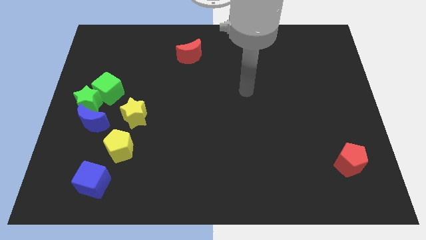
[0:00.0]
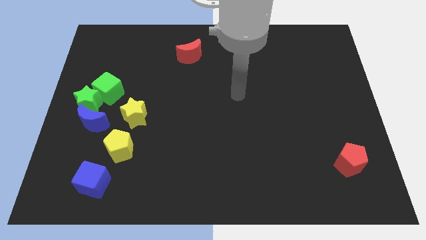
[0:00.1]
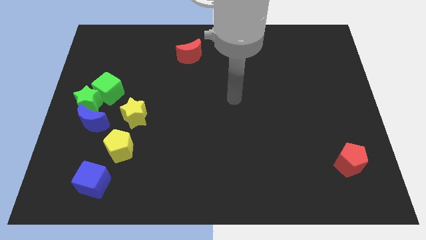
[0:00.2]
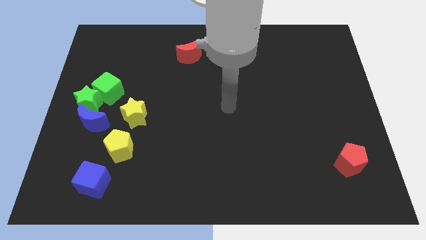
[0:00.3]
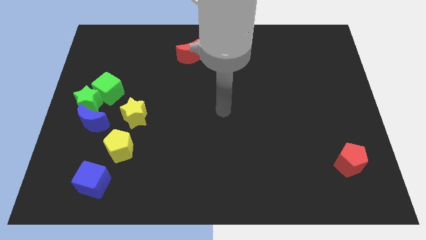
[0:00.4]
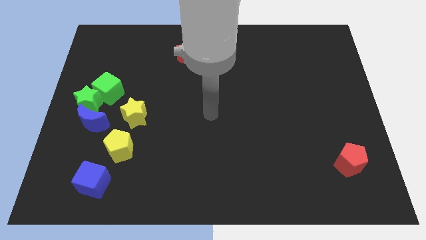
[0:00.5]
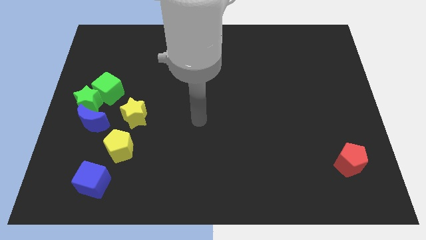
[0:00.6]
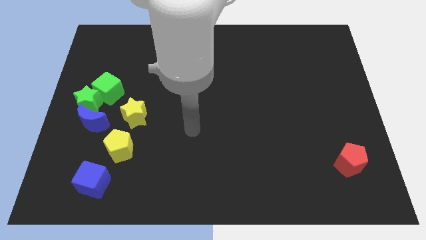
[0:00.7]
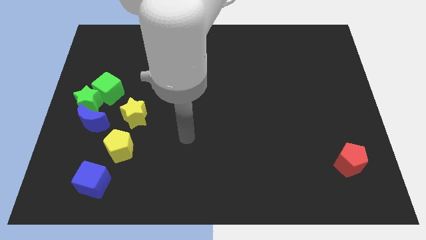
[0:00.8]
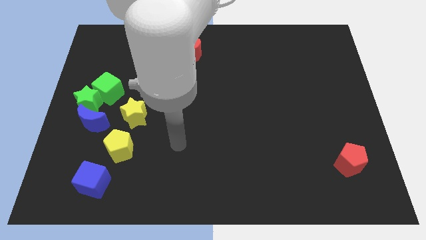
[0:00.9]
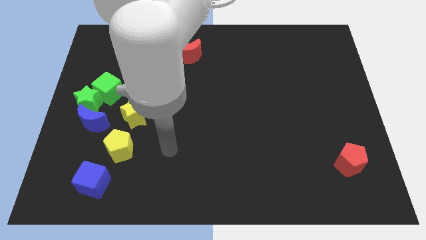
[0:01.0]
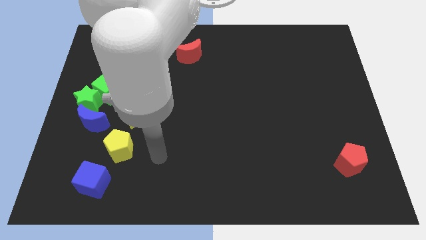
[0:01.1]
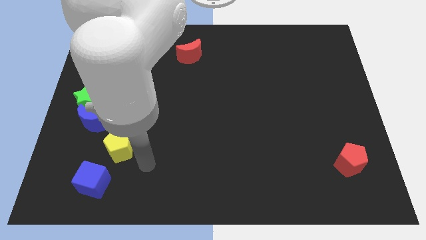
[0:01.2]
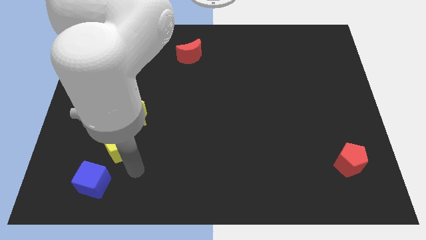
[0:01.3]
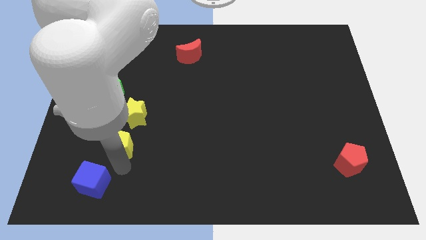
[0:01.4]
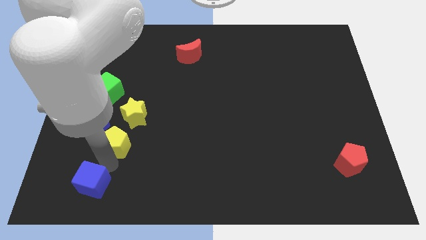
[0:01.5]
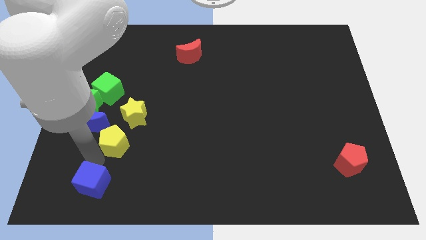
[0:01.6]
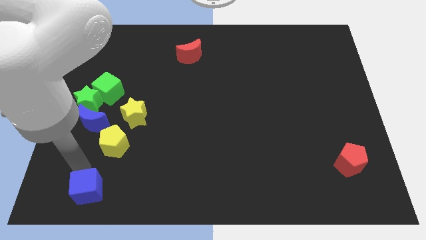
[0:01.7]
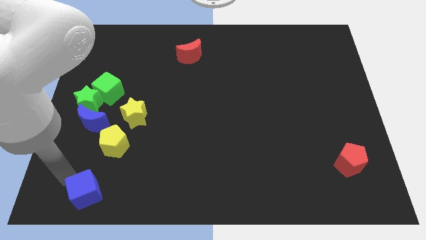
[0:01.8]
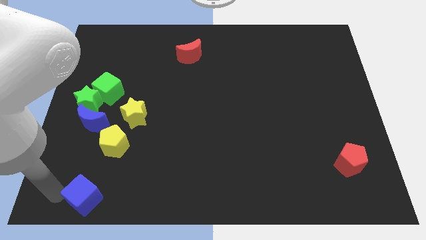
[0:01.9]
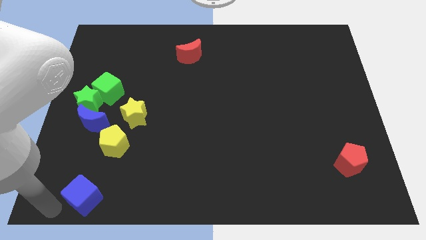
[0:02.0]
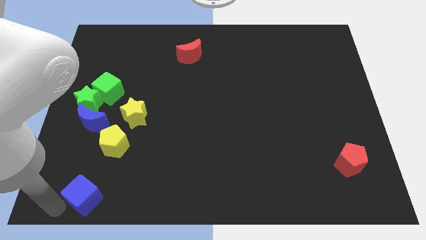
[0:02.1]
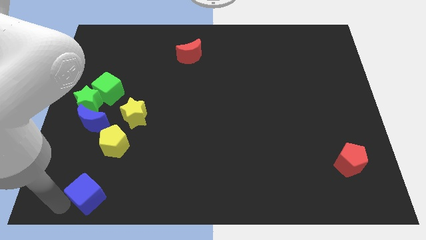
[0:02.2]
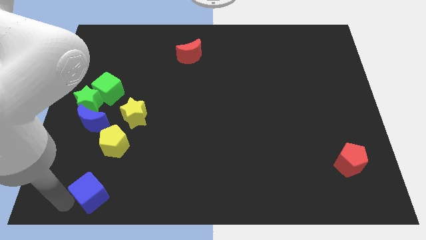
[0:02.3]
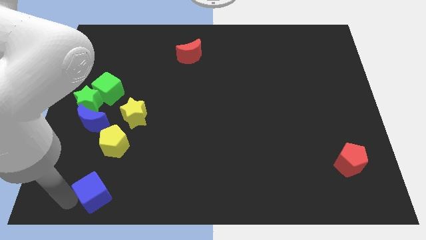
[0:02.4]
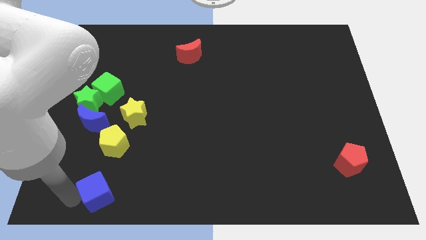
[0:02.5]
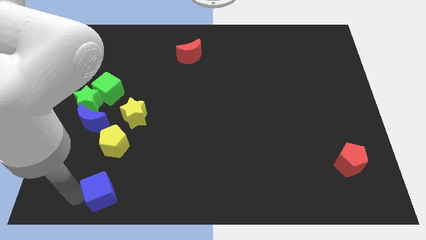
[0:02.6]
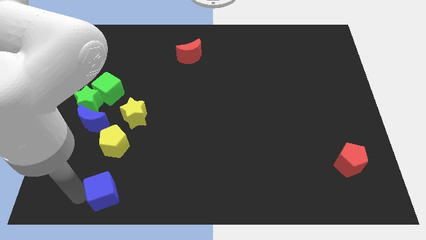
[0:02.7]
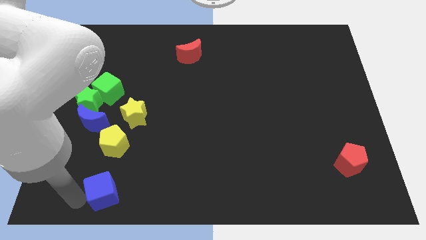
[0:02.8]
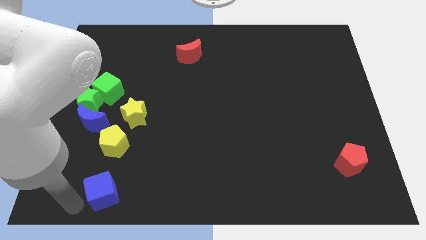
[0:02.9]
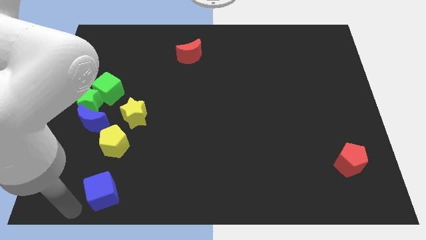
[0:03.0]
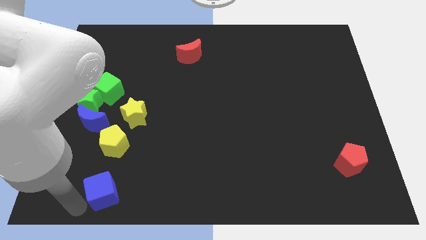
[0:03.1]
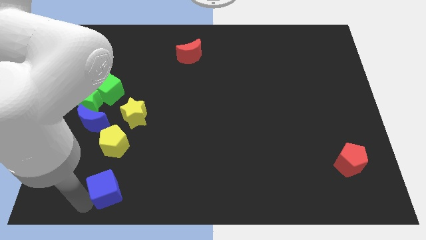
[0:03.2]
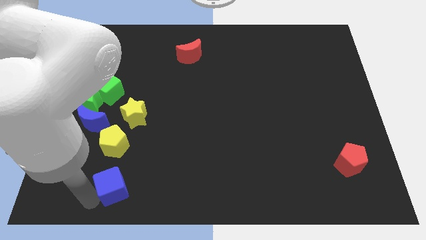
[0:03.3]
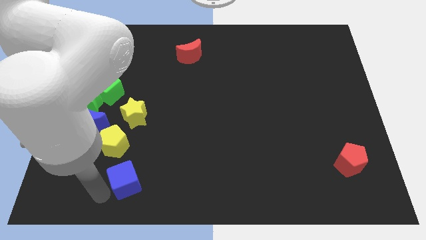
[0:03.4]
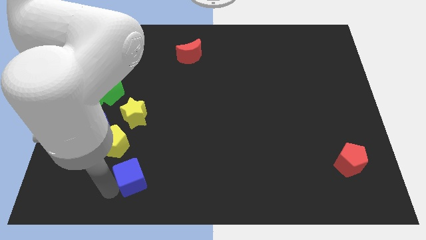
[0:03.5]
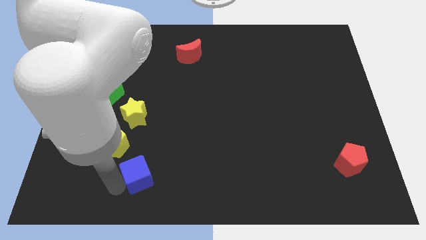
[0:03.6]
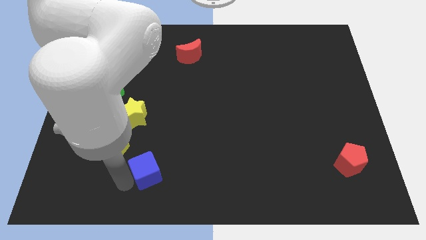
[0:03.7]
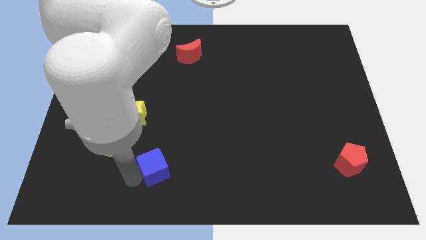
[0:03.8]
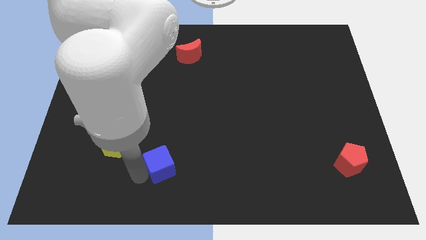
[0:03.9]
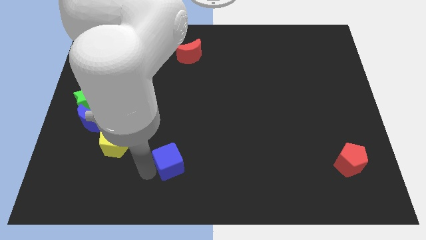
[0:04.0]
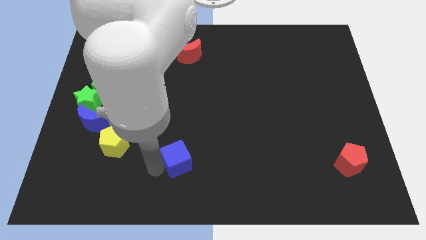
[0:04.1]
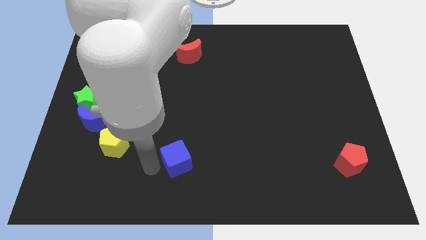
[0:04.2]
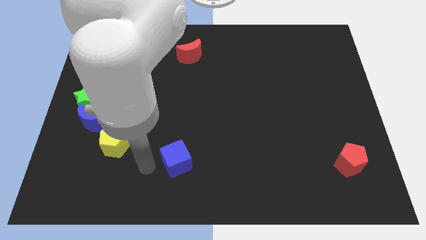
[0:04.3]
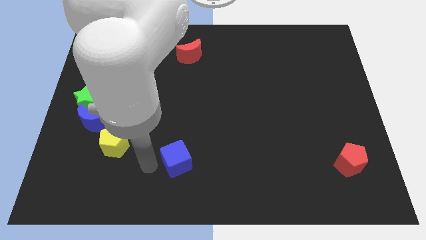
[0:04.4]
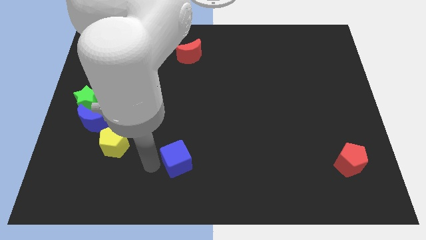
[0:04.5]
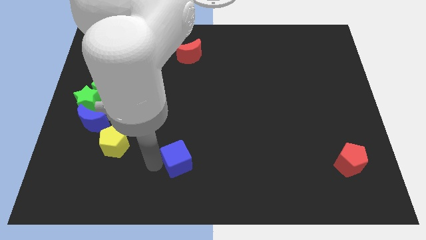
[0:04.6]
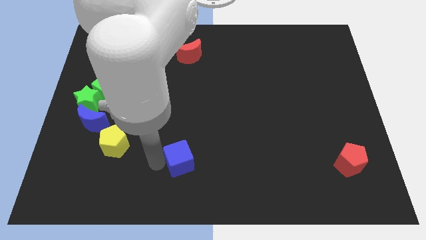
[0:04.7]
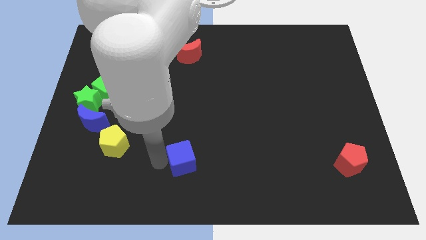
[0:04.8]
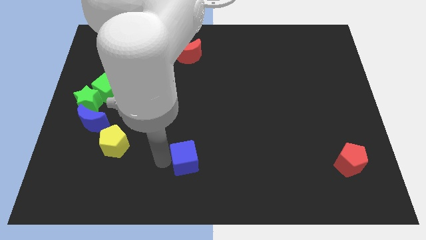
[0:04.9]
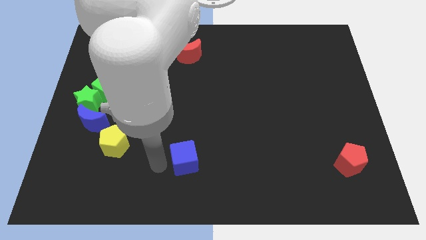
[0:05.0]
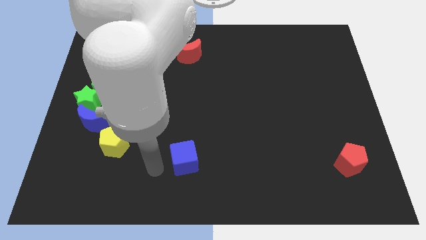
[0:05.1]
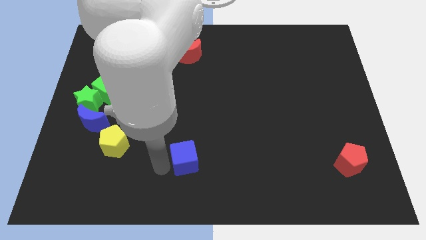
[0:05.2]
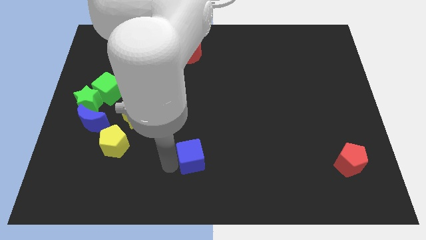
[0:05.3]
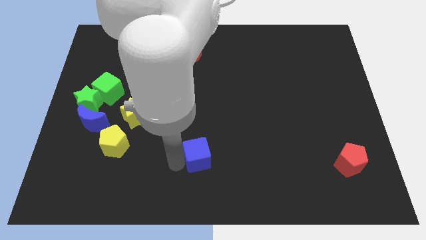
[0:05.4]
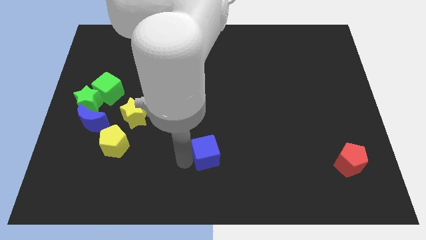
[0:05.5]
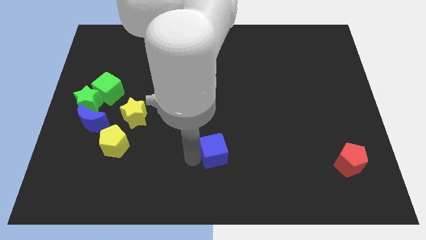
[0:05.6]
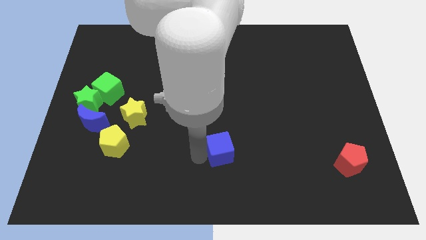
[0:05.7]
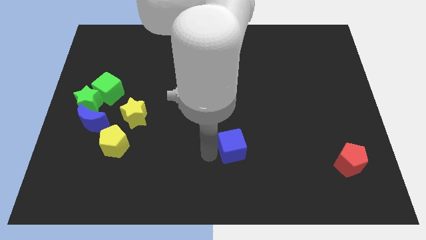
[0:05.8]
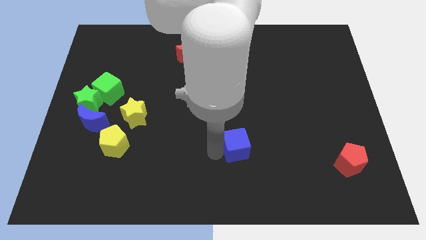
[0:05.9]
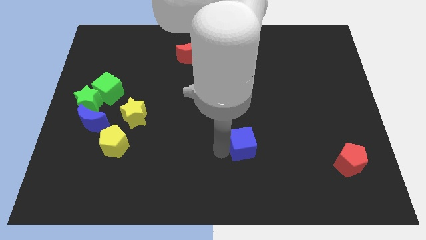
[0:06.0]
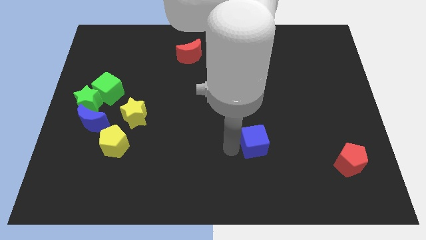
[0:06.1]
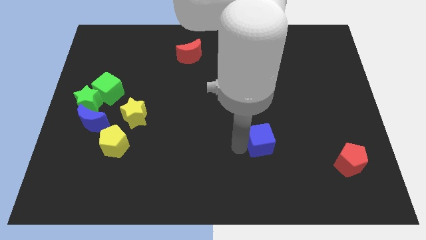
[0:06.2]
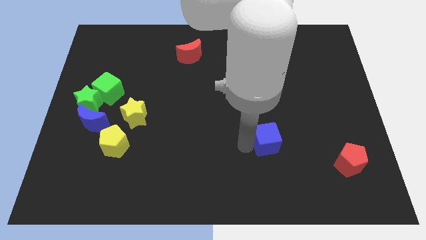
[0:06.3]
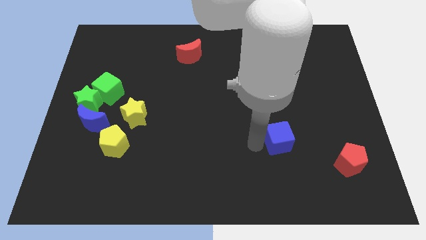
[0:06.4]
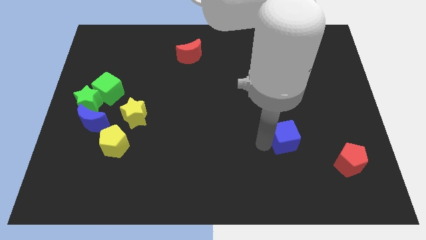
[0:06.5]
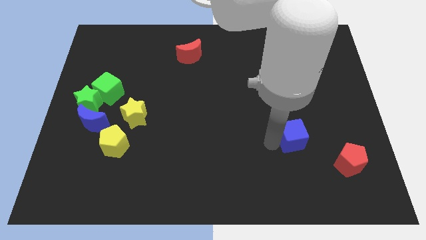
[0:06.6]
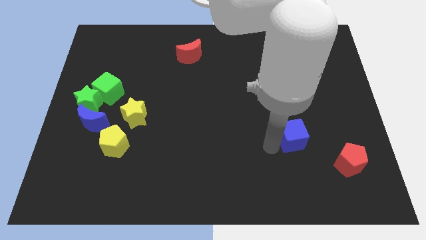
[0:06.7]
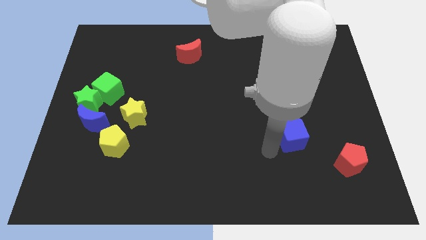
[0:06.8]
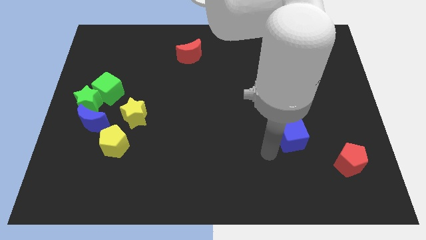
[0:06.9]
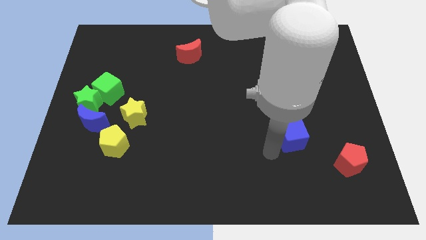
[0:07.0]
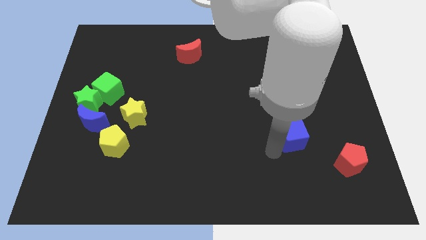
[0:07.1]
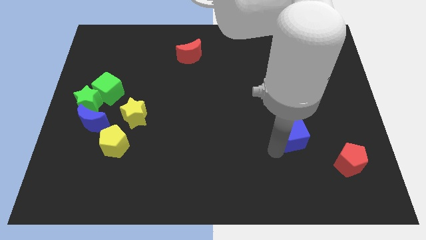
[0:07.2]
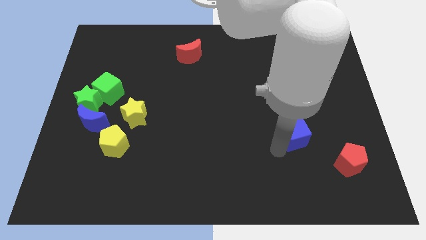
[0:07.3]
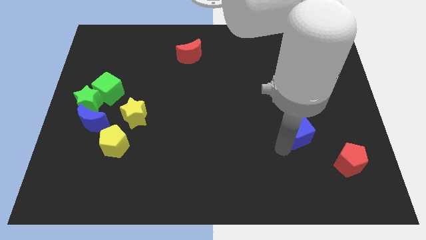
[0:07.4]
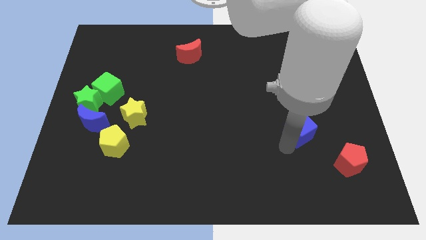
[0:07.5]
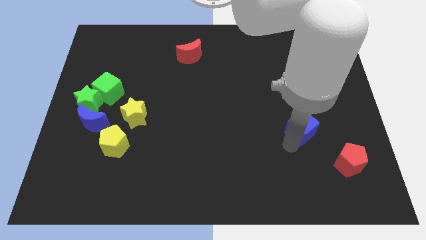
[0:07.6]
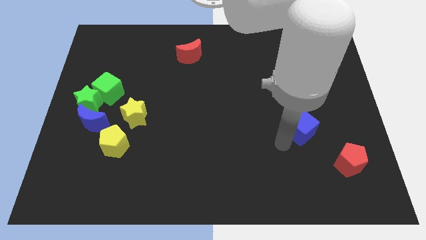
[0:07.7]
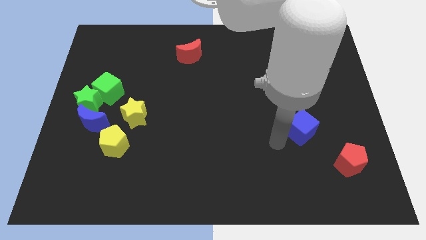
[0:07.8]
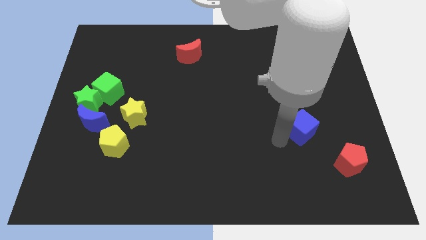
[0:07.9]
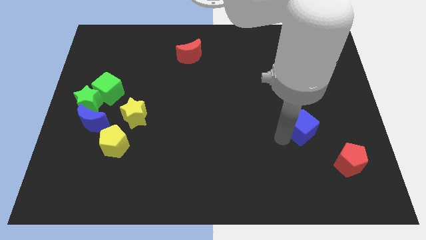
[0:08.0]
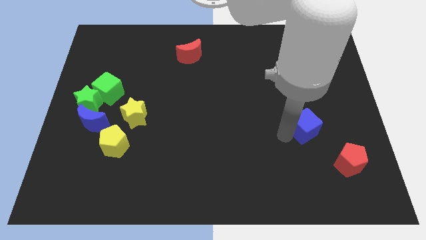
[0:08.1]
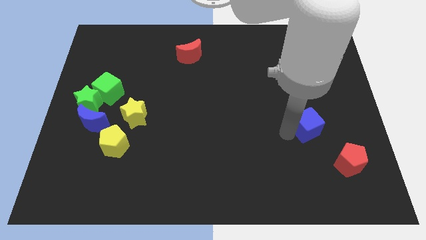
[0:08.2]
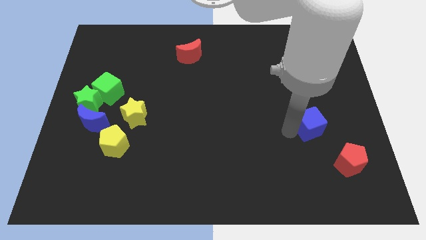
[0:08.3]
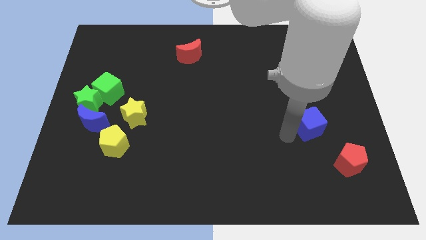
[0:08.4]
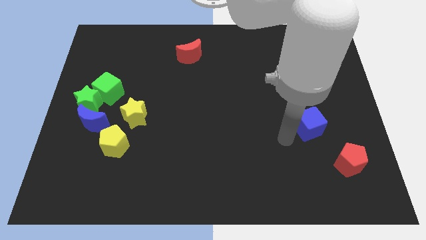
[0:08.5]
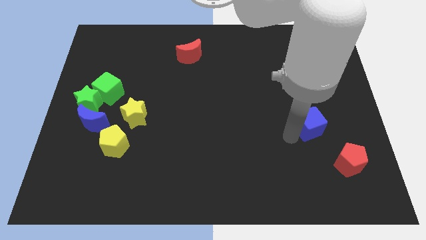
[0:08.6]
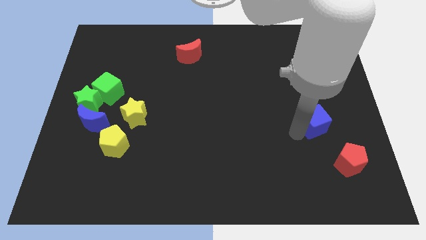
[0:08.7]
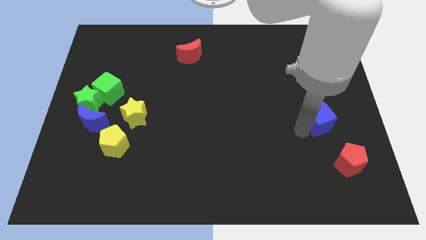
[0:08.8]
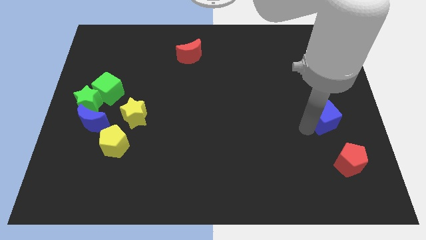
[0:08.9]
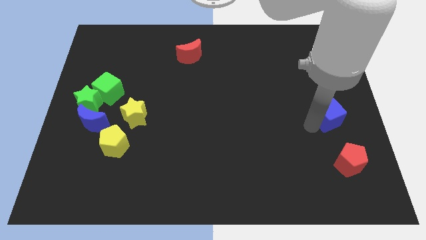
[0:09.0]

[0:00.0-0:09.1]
put the blue cube to the right side
